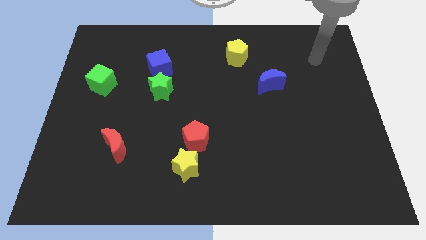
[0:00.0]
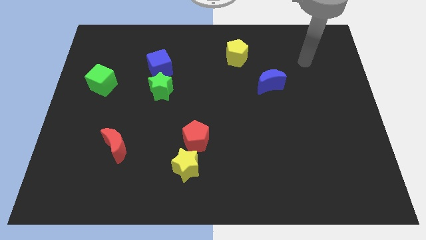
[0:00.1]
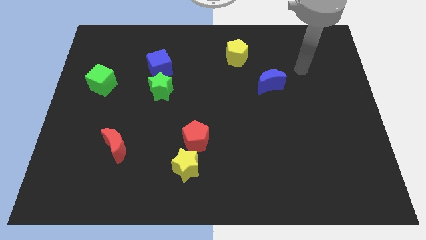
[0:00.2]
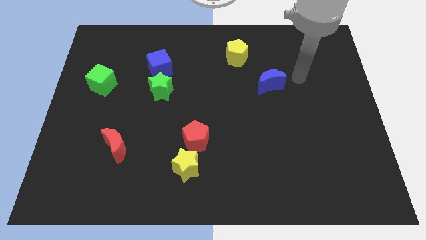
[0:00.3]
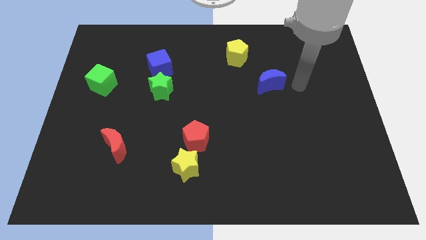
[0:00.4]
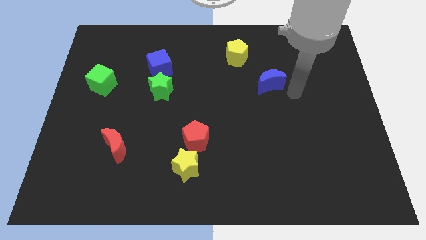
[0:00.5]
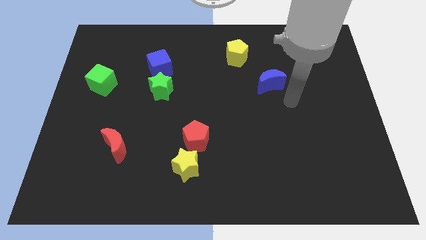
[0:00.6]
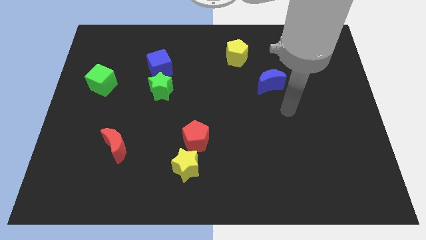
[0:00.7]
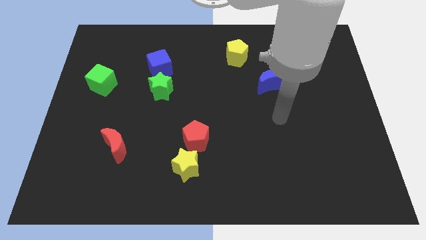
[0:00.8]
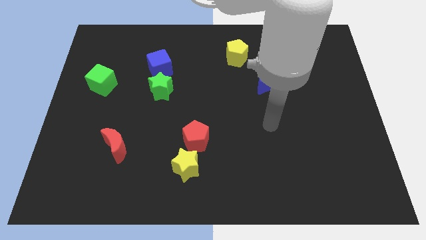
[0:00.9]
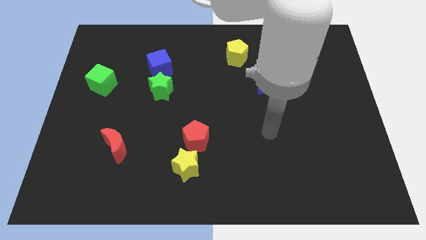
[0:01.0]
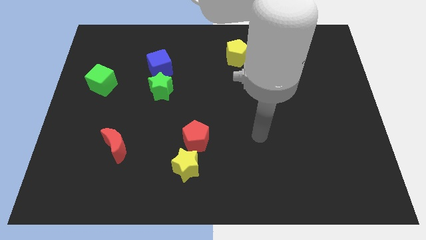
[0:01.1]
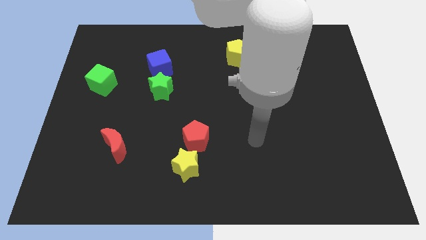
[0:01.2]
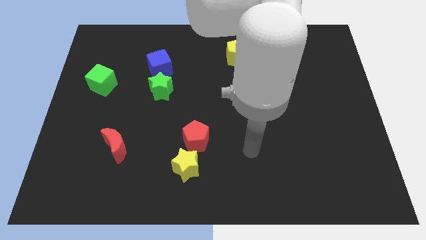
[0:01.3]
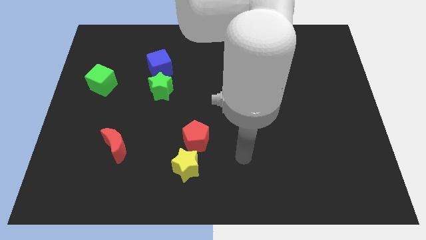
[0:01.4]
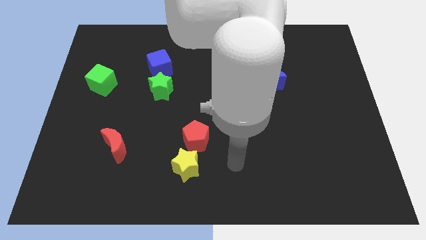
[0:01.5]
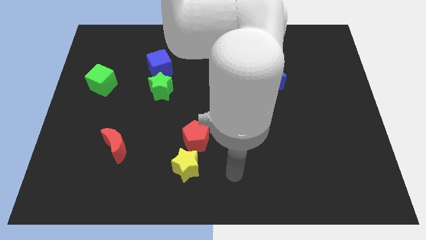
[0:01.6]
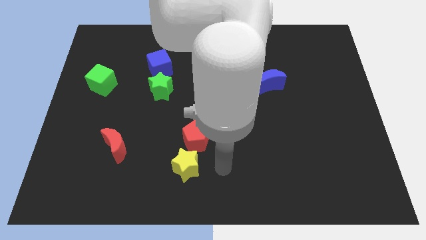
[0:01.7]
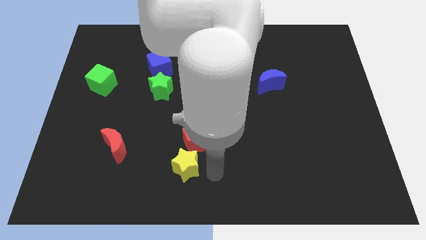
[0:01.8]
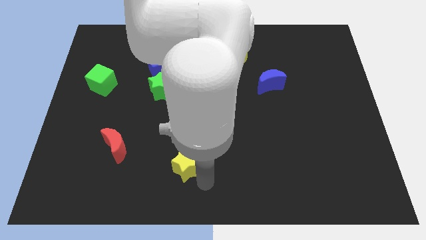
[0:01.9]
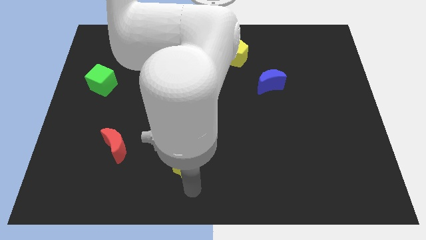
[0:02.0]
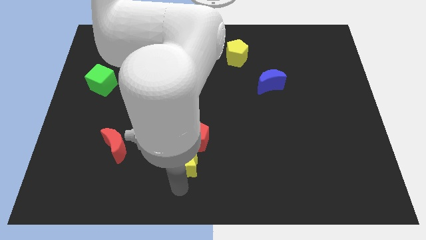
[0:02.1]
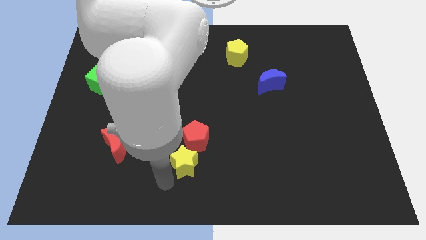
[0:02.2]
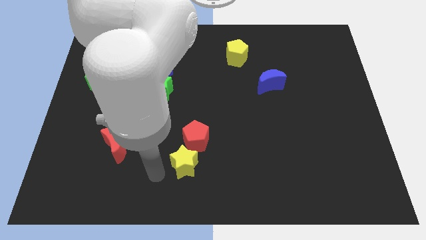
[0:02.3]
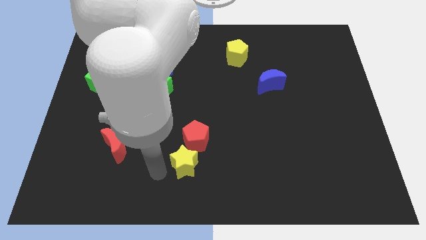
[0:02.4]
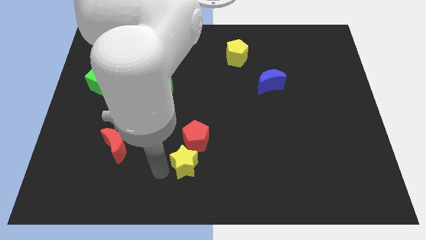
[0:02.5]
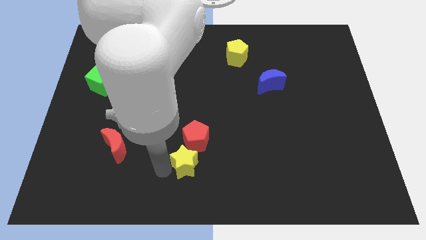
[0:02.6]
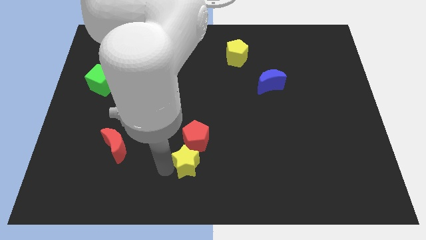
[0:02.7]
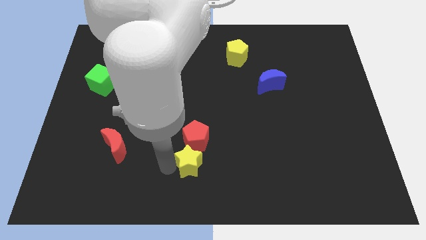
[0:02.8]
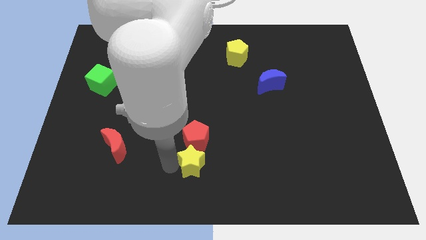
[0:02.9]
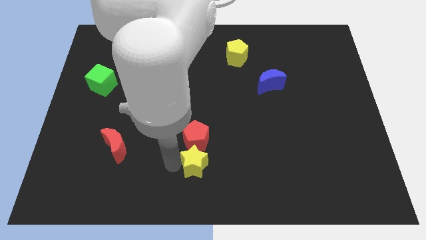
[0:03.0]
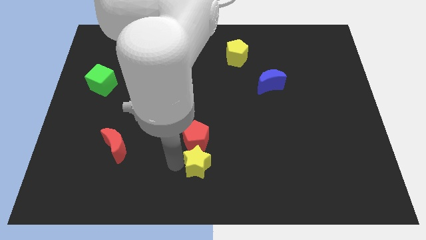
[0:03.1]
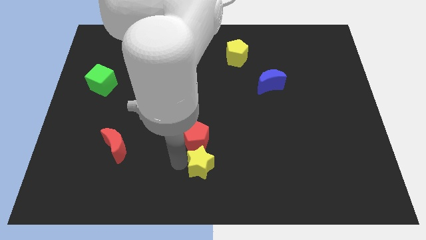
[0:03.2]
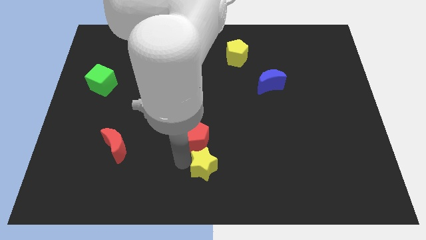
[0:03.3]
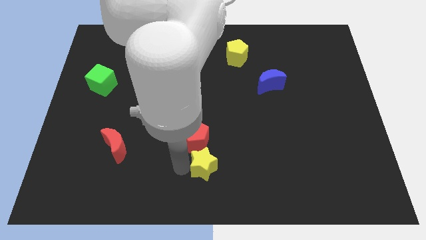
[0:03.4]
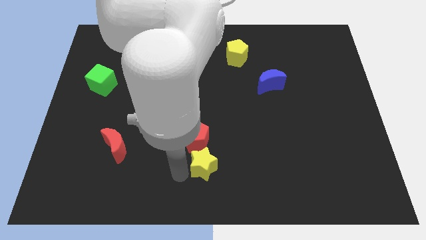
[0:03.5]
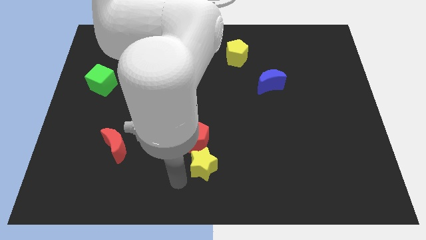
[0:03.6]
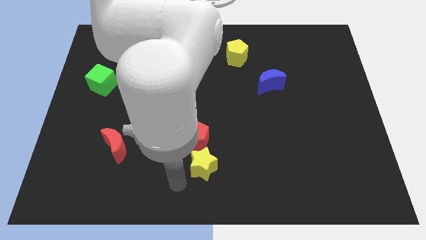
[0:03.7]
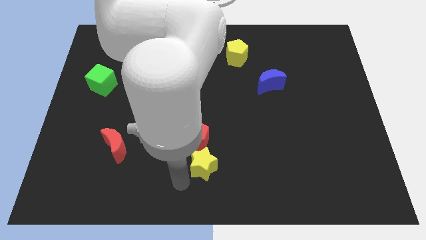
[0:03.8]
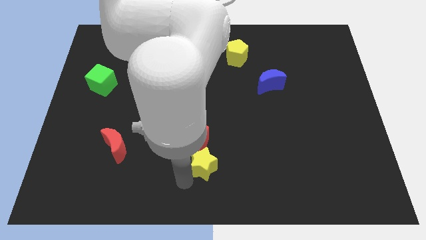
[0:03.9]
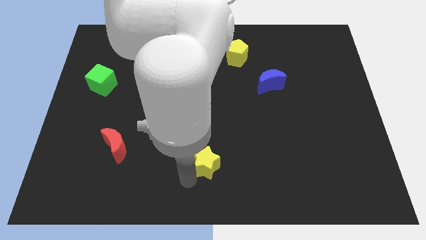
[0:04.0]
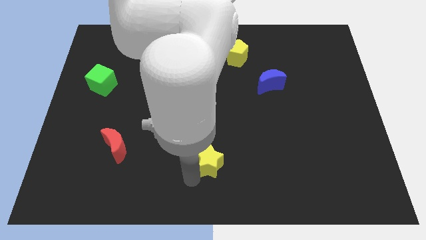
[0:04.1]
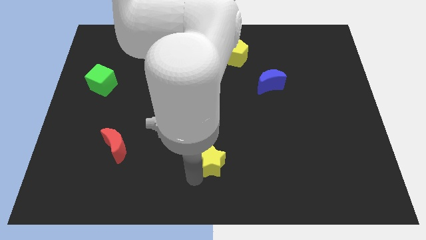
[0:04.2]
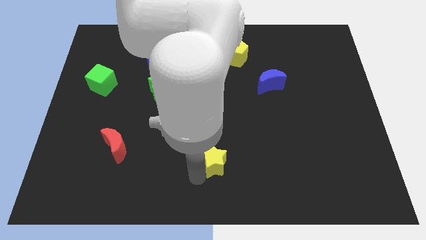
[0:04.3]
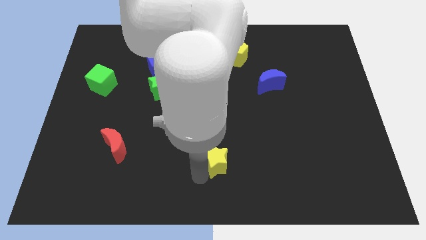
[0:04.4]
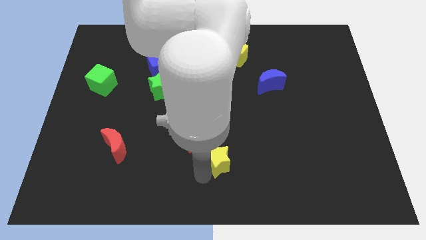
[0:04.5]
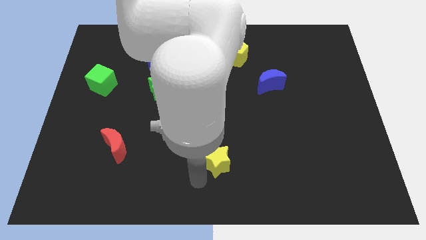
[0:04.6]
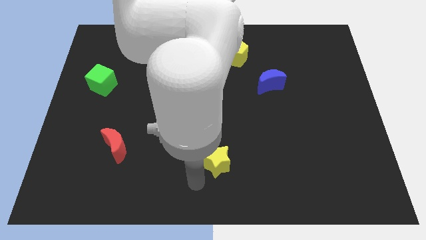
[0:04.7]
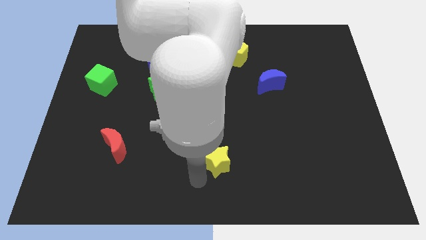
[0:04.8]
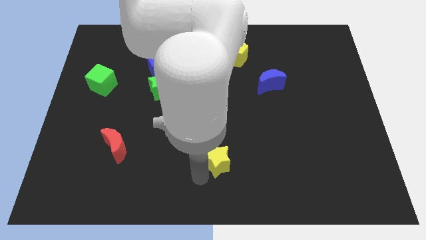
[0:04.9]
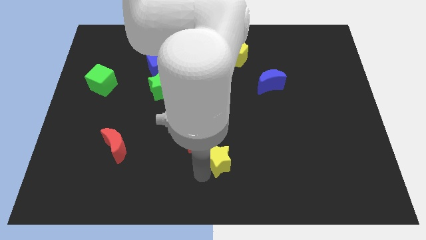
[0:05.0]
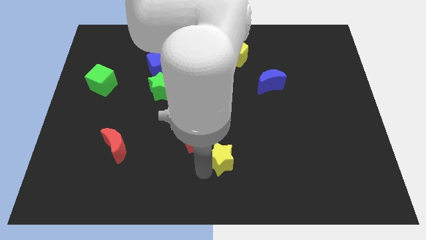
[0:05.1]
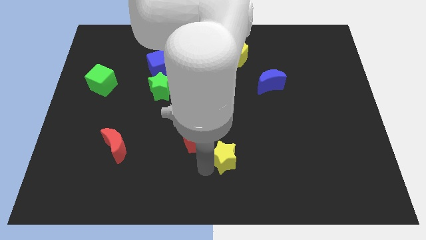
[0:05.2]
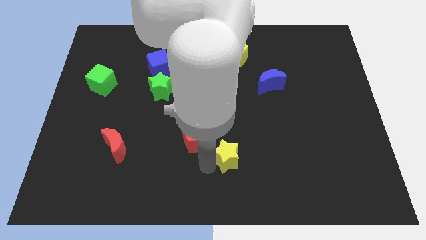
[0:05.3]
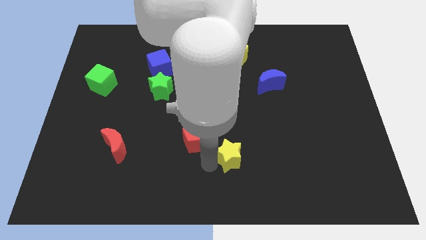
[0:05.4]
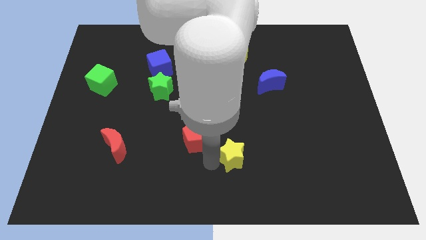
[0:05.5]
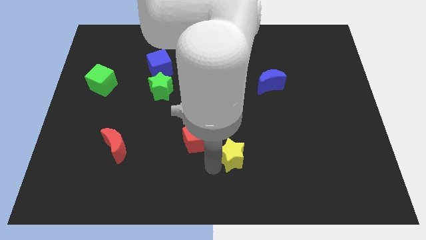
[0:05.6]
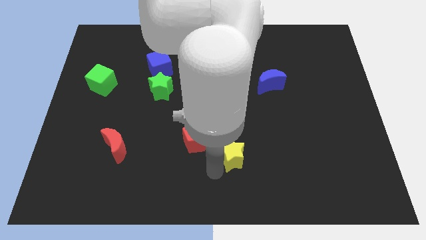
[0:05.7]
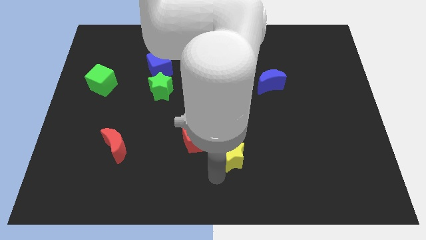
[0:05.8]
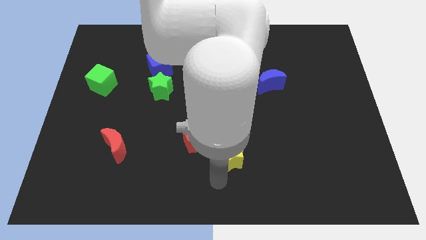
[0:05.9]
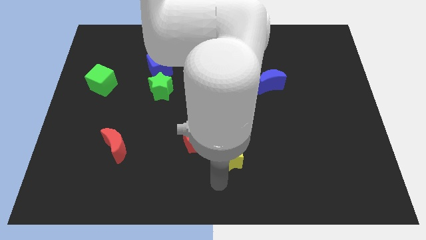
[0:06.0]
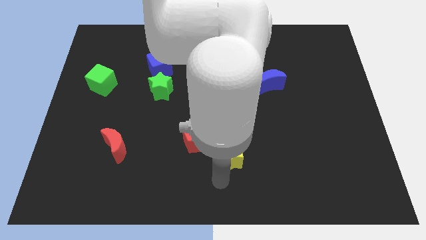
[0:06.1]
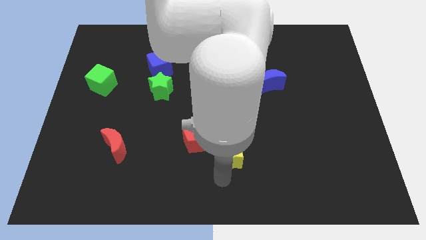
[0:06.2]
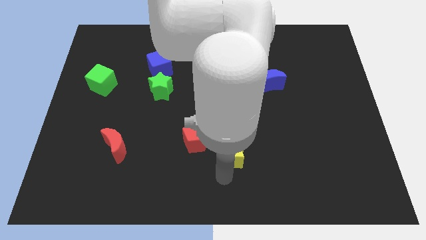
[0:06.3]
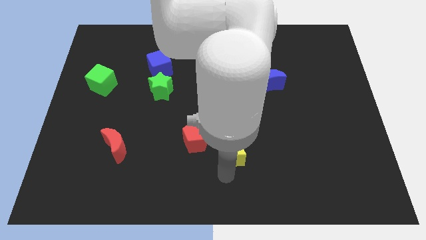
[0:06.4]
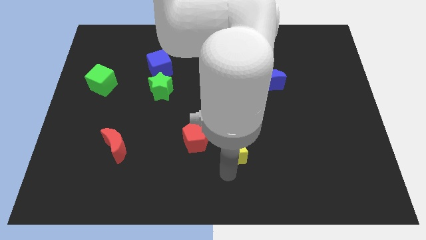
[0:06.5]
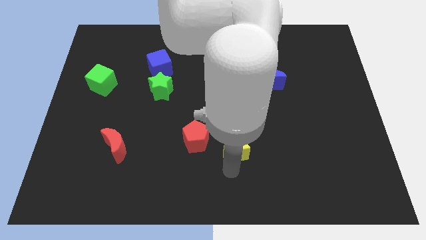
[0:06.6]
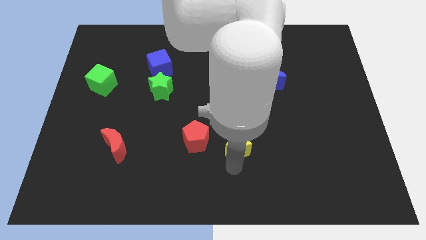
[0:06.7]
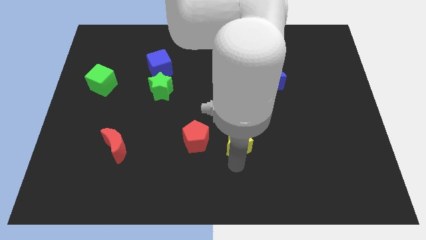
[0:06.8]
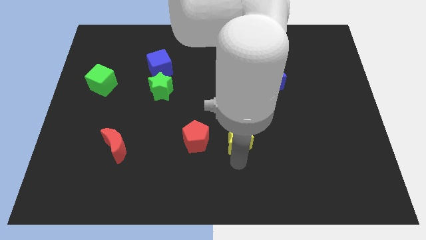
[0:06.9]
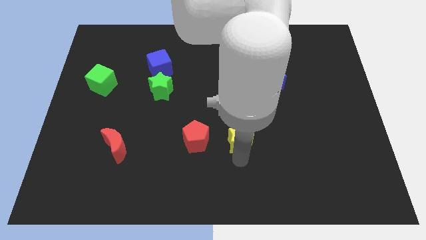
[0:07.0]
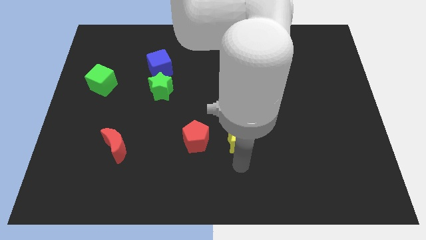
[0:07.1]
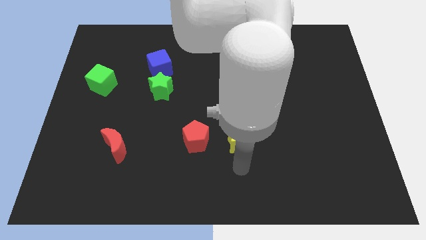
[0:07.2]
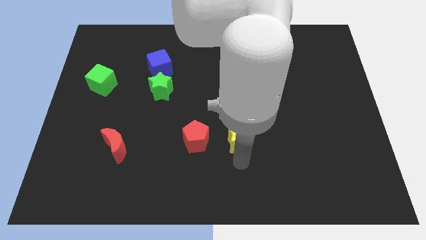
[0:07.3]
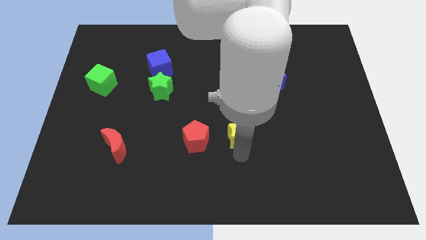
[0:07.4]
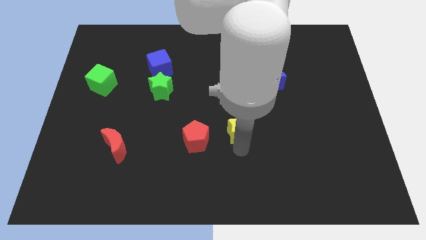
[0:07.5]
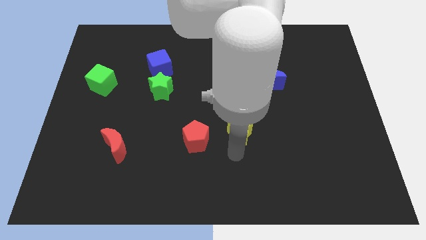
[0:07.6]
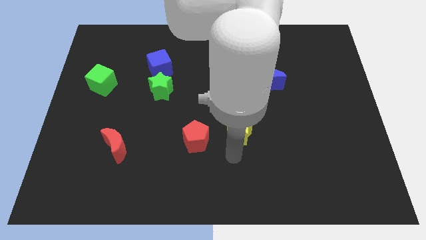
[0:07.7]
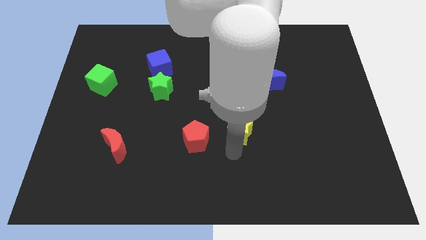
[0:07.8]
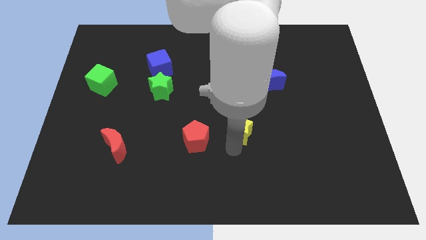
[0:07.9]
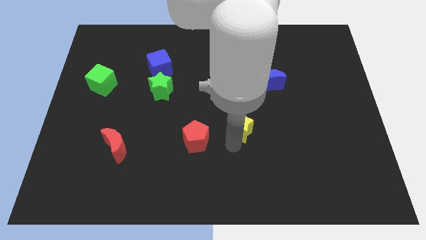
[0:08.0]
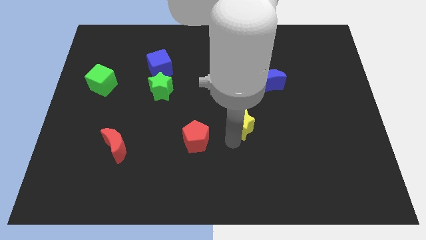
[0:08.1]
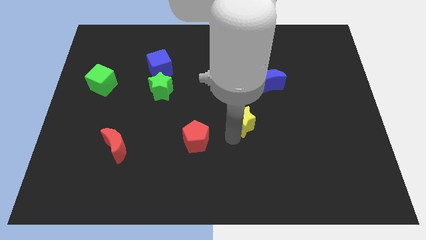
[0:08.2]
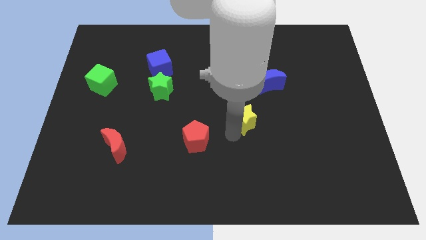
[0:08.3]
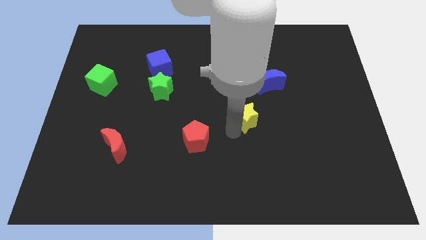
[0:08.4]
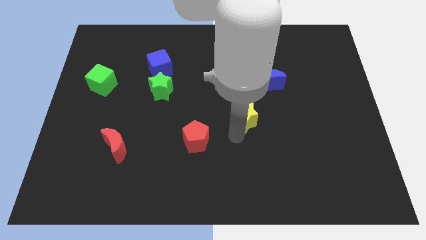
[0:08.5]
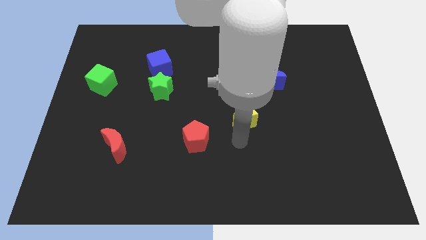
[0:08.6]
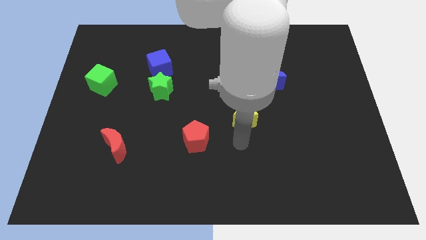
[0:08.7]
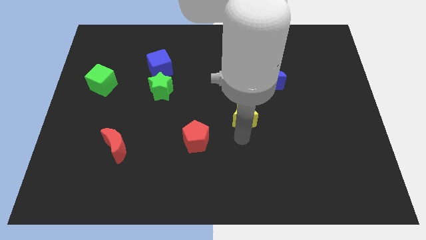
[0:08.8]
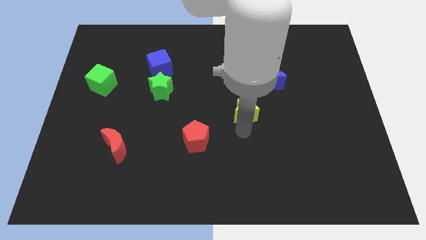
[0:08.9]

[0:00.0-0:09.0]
move the yellow star to the bottom left side of the blue moon
